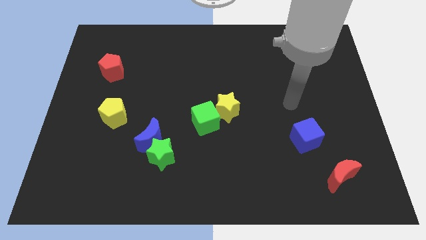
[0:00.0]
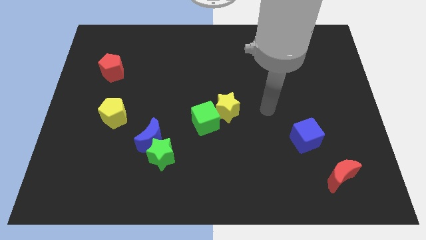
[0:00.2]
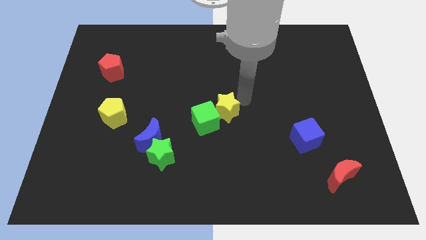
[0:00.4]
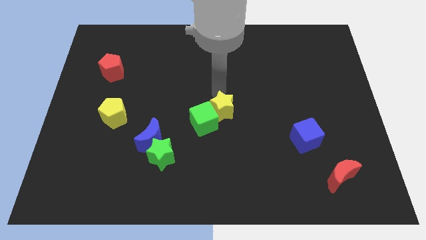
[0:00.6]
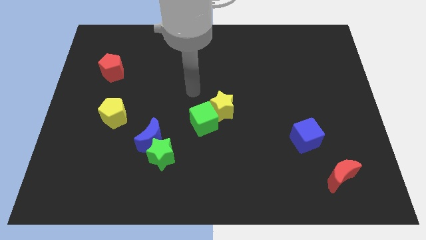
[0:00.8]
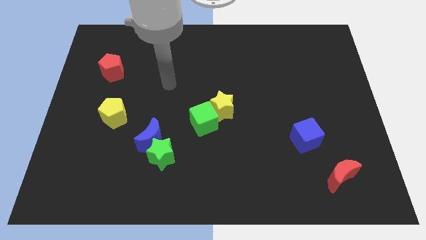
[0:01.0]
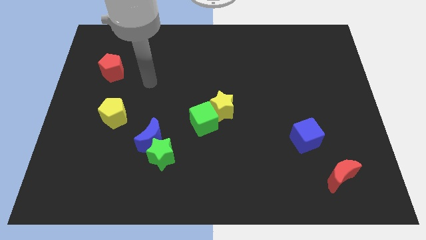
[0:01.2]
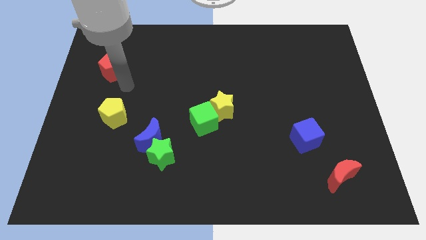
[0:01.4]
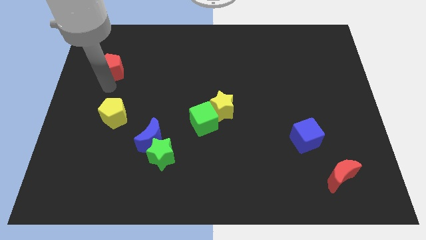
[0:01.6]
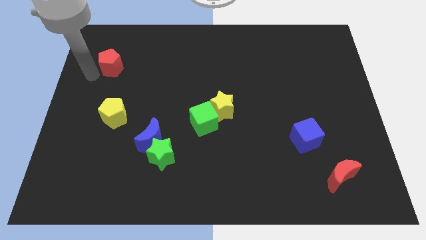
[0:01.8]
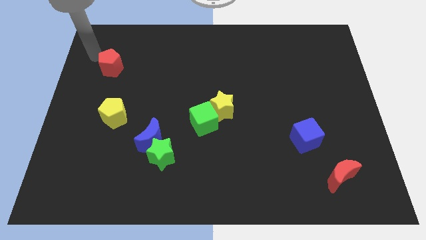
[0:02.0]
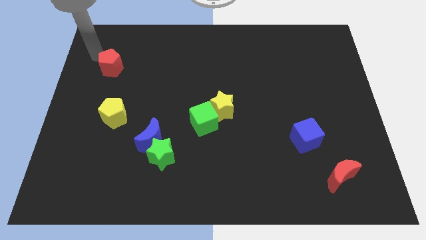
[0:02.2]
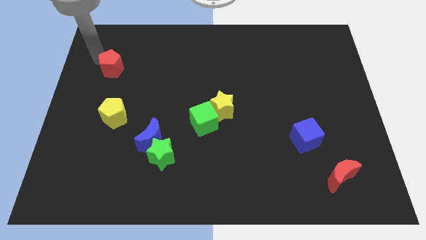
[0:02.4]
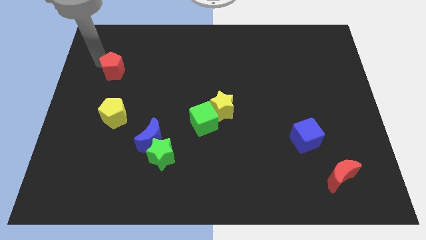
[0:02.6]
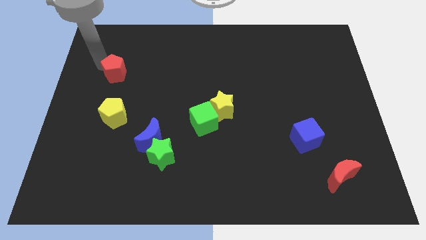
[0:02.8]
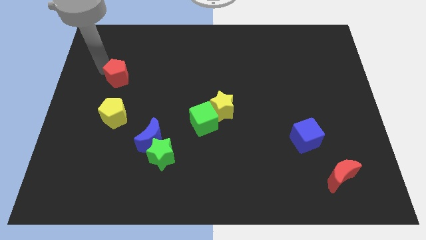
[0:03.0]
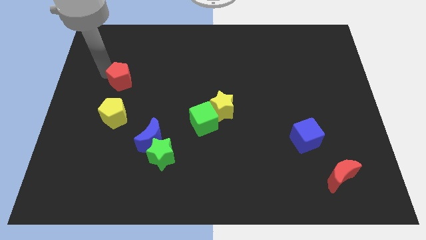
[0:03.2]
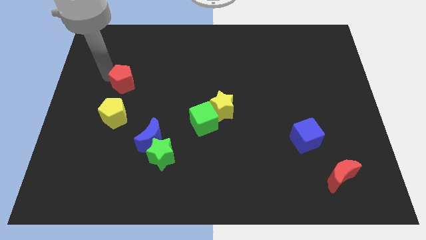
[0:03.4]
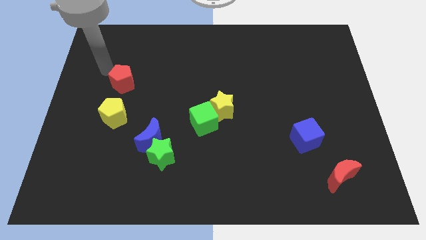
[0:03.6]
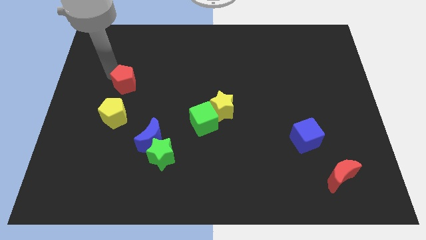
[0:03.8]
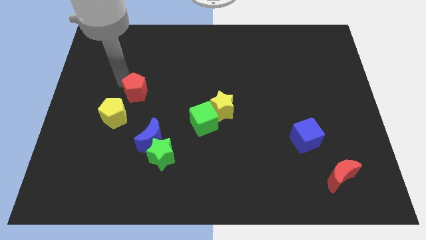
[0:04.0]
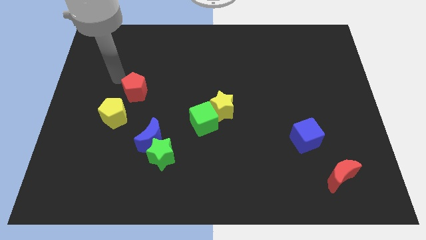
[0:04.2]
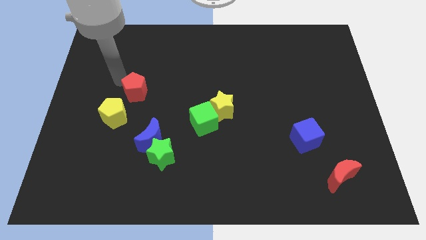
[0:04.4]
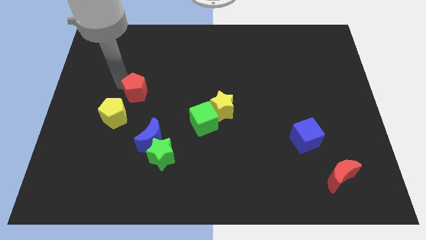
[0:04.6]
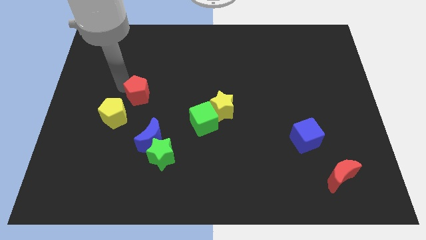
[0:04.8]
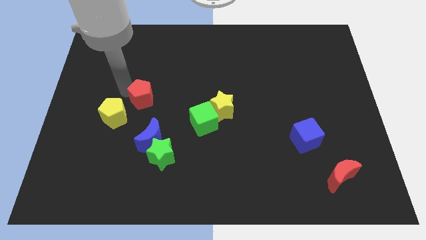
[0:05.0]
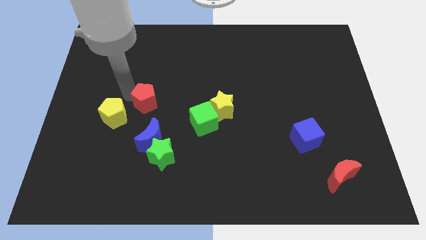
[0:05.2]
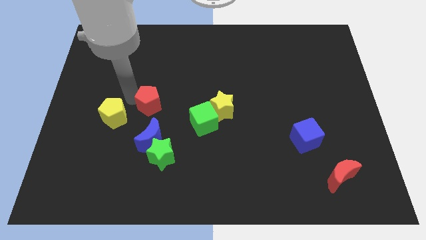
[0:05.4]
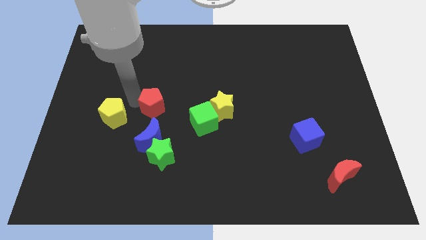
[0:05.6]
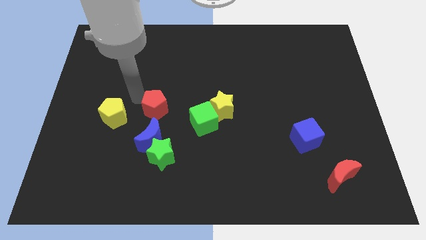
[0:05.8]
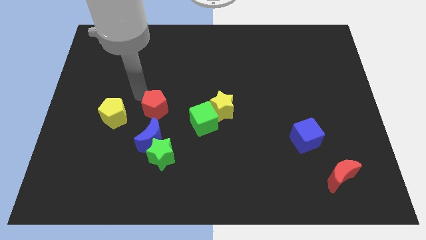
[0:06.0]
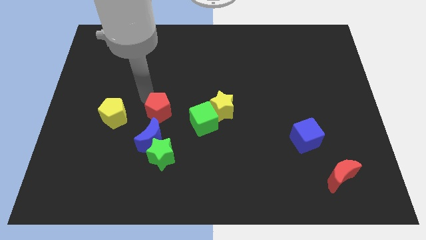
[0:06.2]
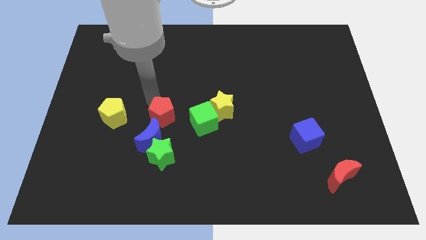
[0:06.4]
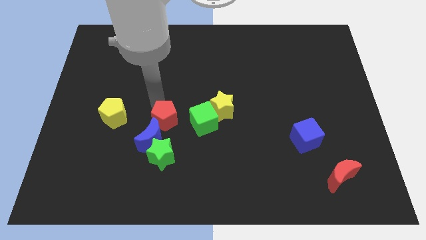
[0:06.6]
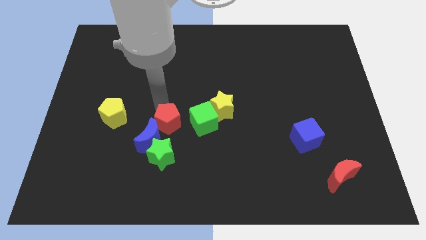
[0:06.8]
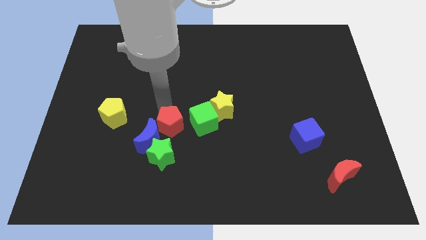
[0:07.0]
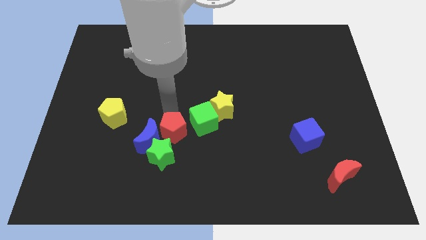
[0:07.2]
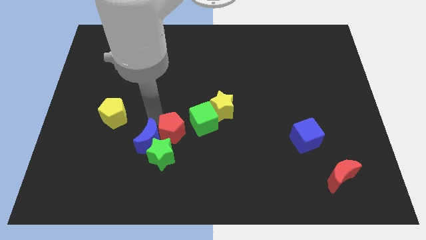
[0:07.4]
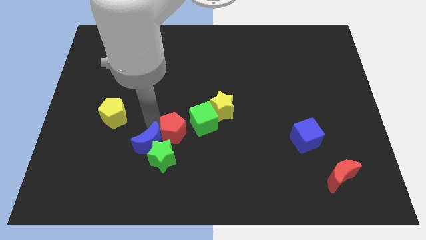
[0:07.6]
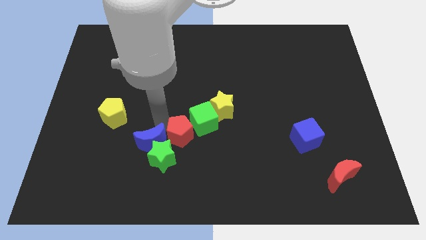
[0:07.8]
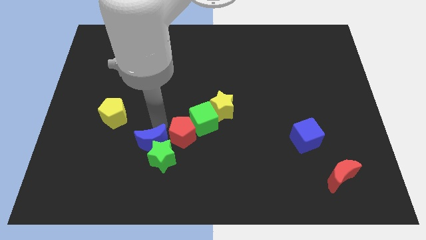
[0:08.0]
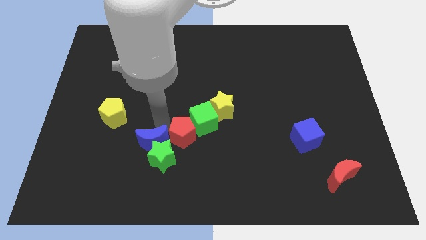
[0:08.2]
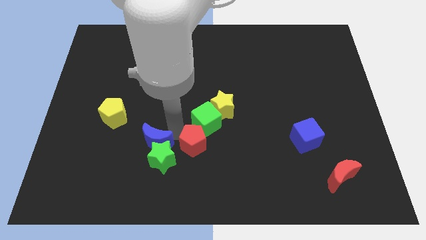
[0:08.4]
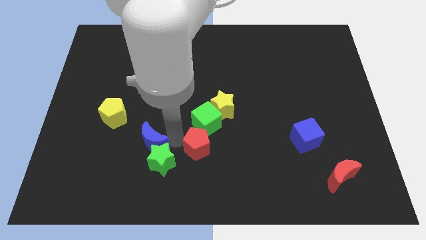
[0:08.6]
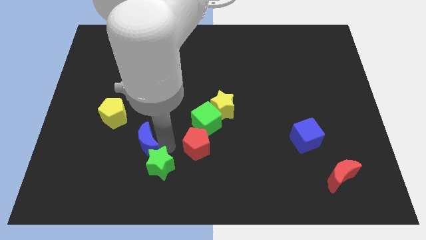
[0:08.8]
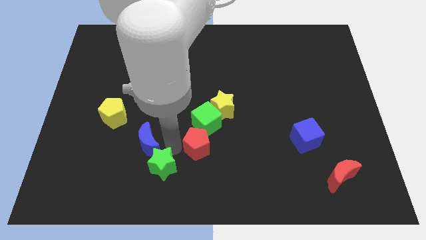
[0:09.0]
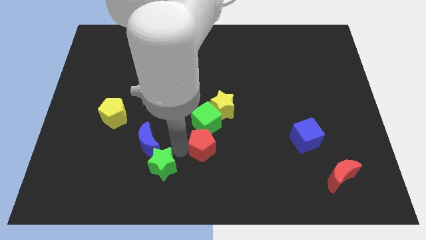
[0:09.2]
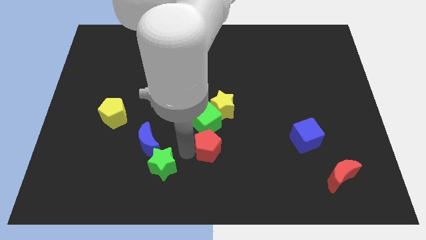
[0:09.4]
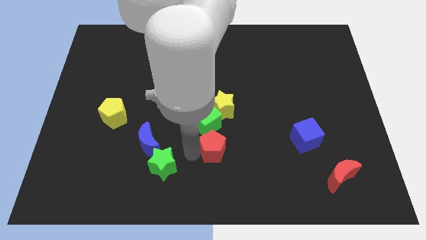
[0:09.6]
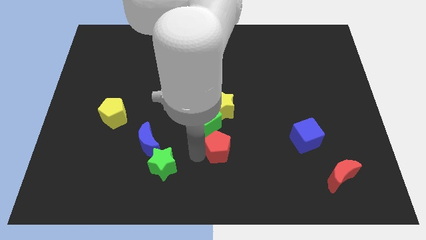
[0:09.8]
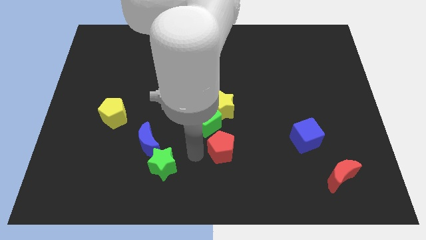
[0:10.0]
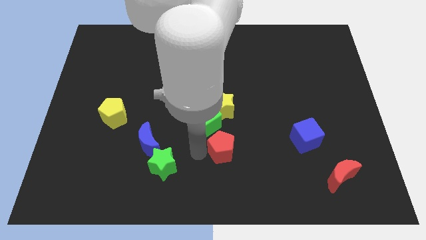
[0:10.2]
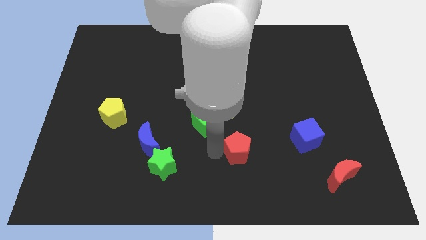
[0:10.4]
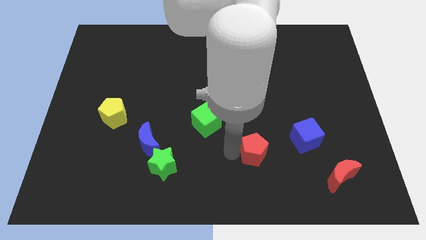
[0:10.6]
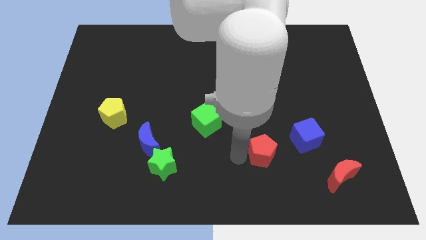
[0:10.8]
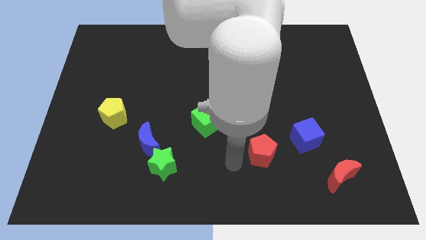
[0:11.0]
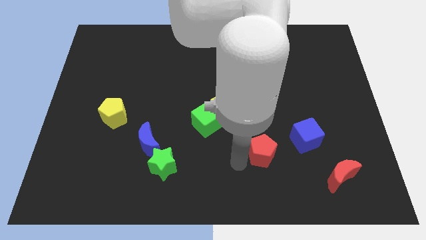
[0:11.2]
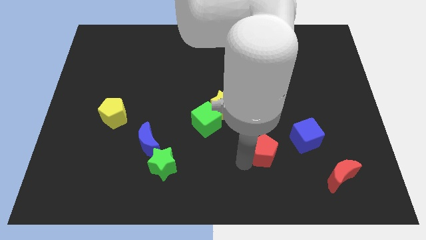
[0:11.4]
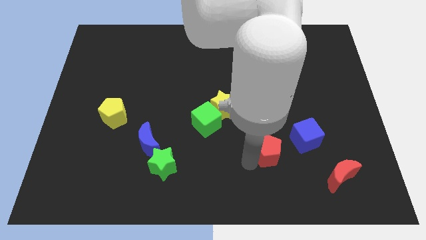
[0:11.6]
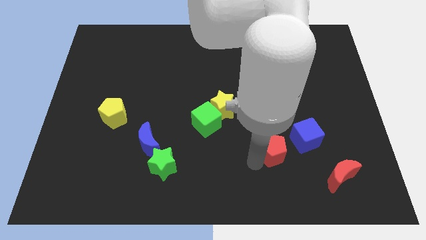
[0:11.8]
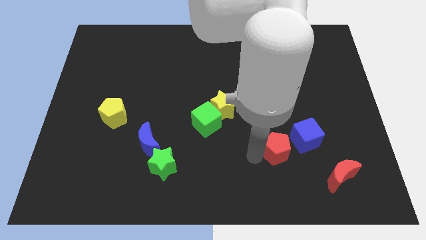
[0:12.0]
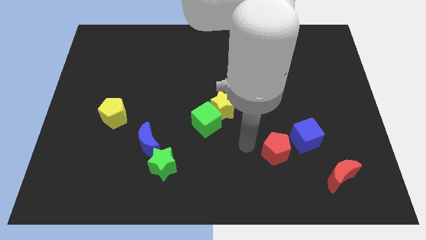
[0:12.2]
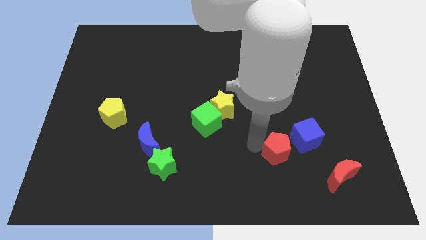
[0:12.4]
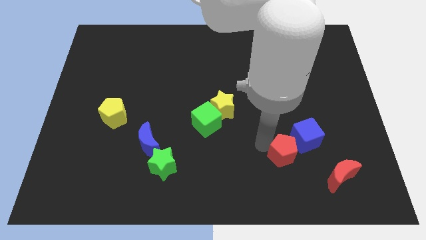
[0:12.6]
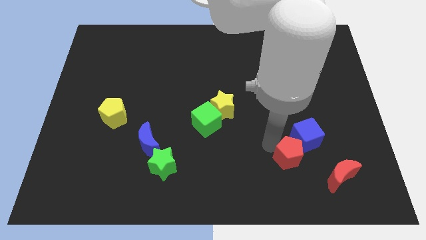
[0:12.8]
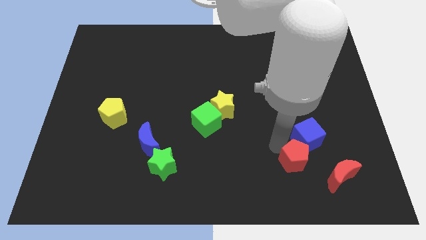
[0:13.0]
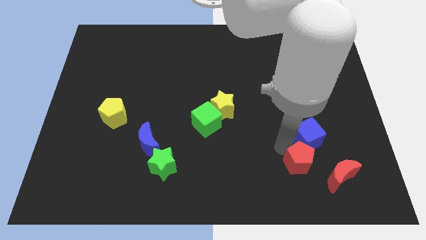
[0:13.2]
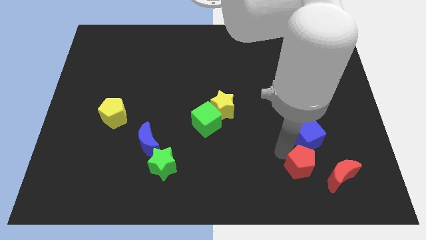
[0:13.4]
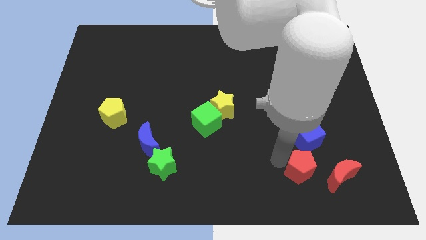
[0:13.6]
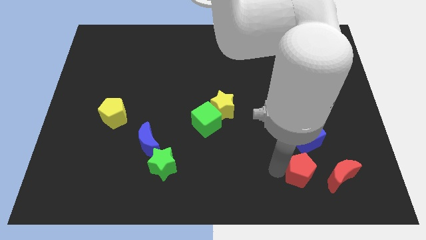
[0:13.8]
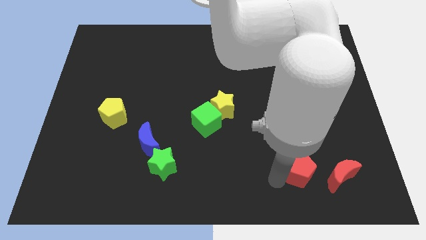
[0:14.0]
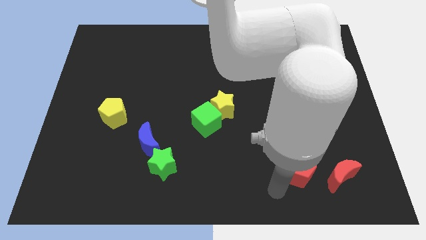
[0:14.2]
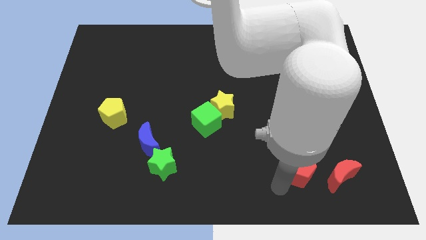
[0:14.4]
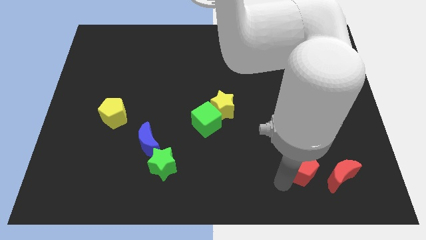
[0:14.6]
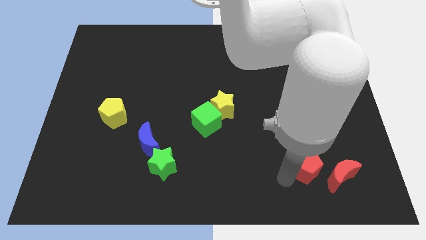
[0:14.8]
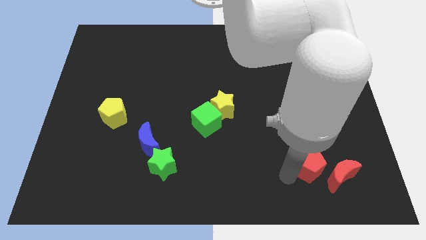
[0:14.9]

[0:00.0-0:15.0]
move the red pentagon towards the red moon
